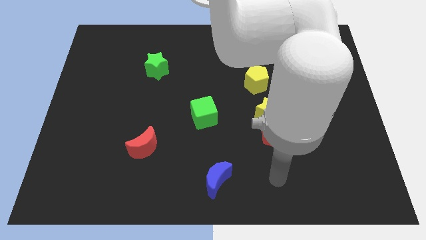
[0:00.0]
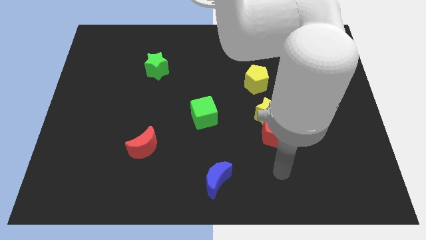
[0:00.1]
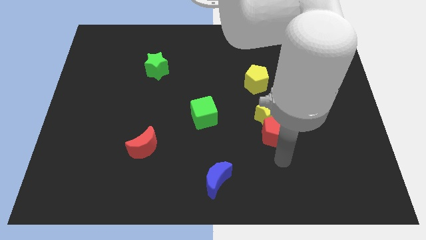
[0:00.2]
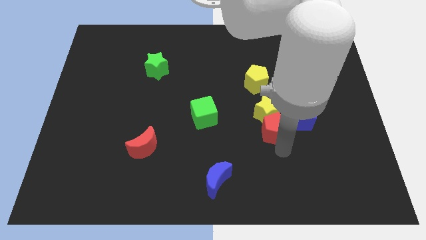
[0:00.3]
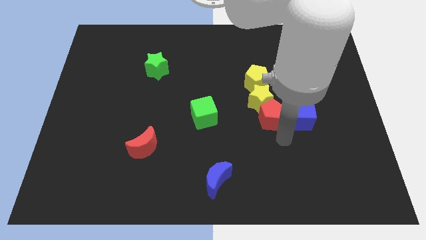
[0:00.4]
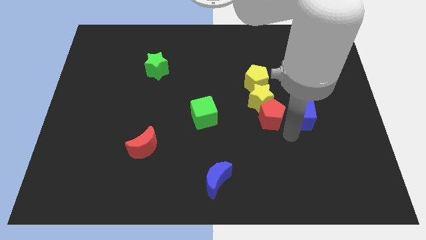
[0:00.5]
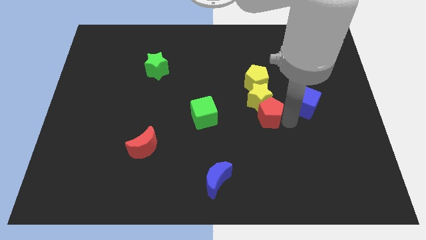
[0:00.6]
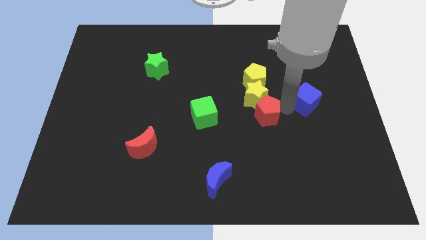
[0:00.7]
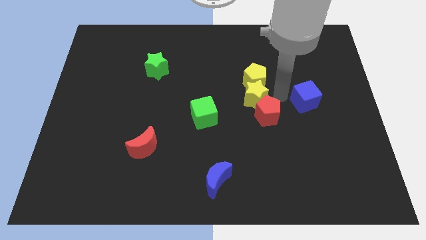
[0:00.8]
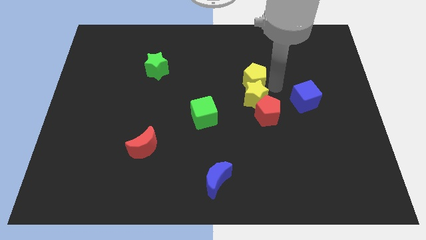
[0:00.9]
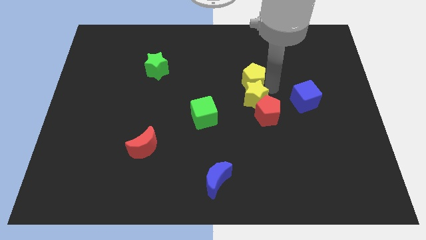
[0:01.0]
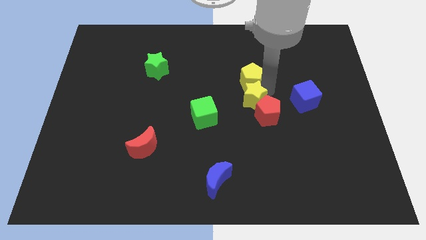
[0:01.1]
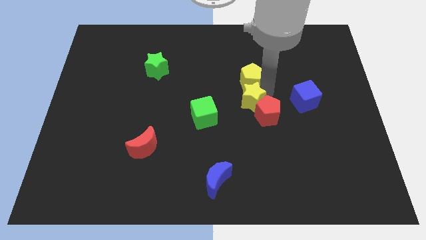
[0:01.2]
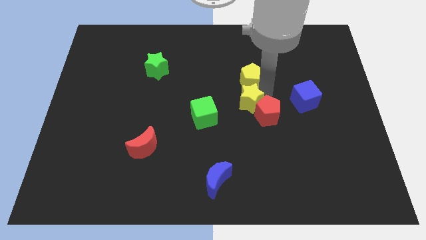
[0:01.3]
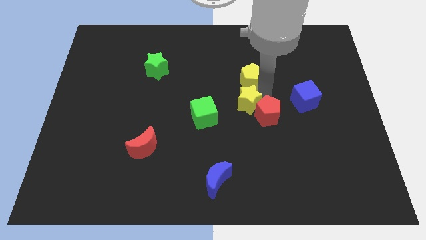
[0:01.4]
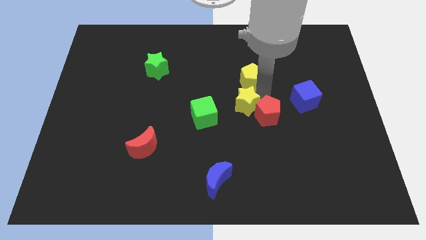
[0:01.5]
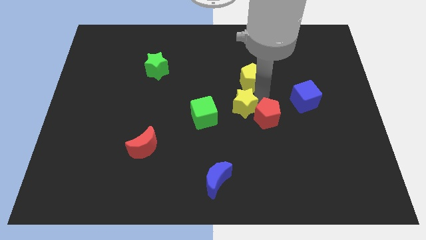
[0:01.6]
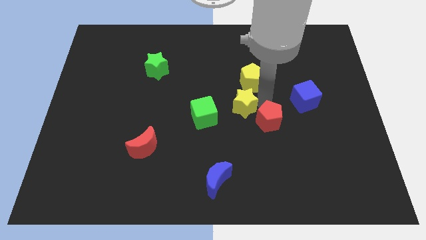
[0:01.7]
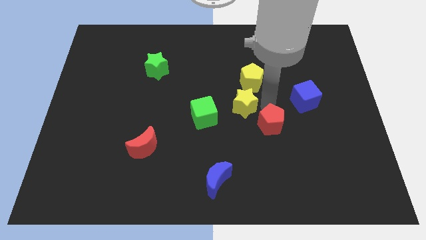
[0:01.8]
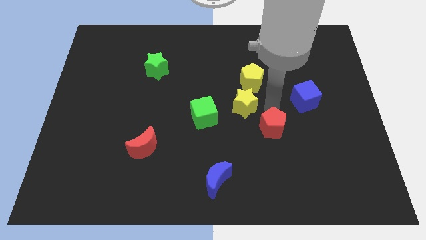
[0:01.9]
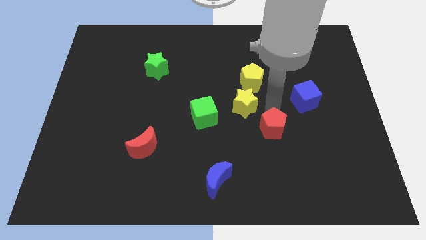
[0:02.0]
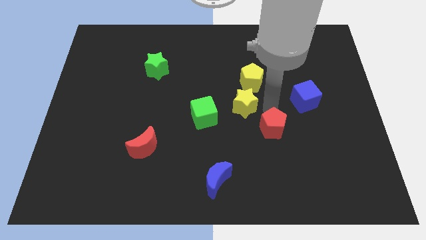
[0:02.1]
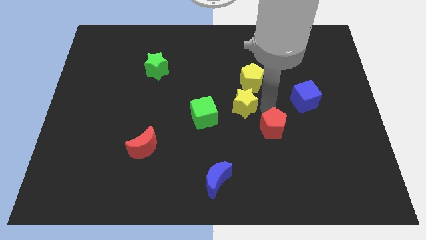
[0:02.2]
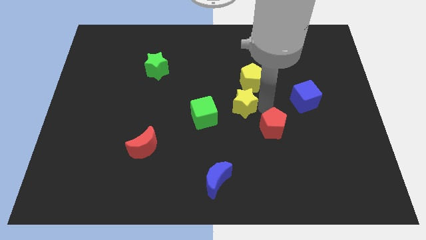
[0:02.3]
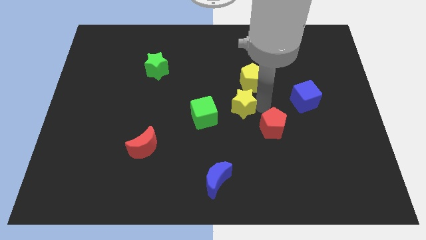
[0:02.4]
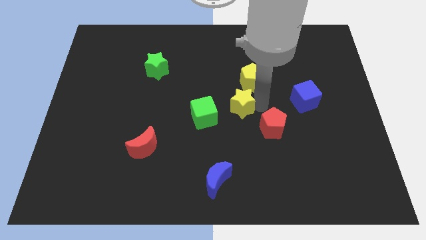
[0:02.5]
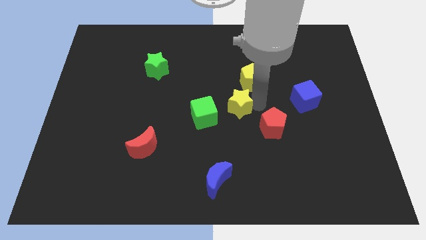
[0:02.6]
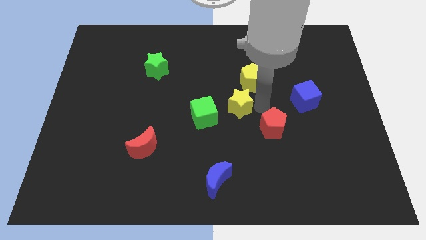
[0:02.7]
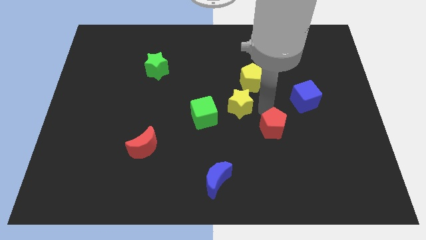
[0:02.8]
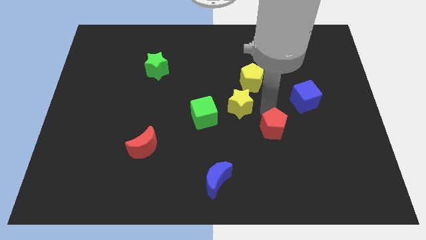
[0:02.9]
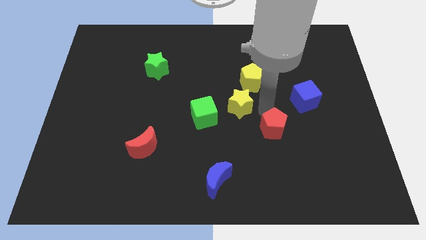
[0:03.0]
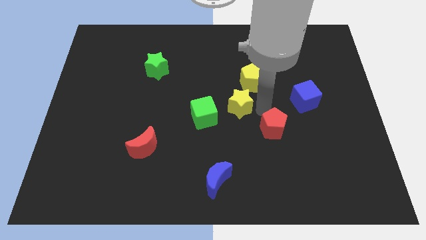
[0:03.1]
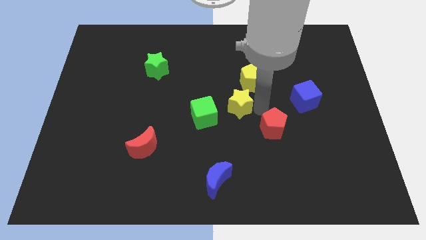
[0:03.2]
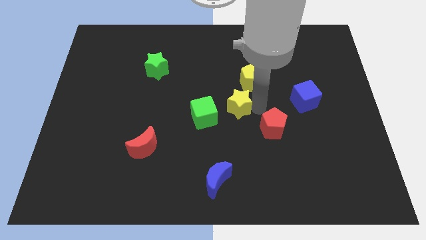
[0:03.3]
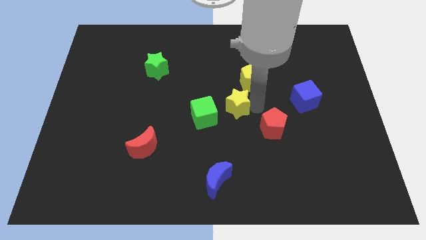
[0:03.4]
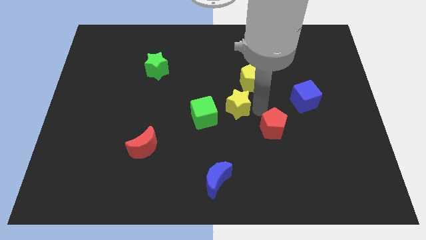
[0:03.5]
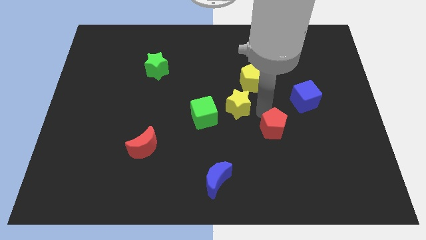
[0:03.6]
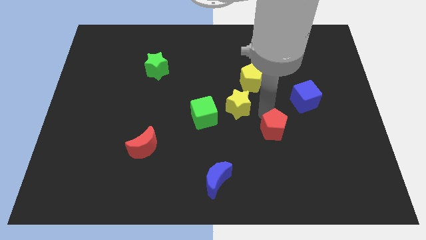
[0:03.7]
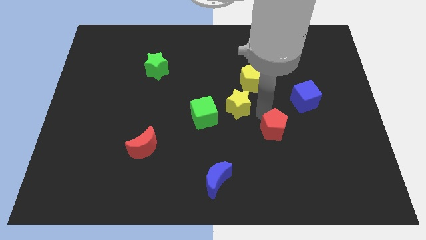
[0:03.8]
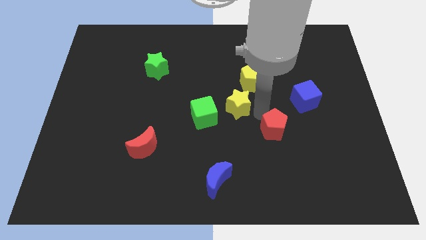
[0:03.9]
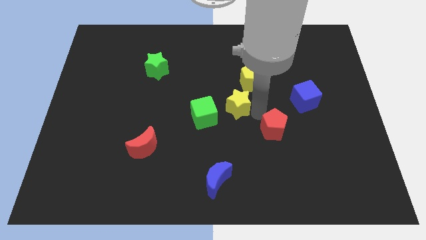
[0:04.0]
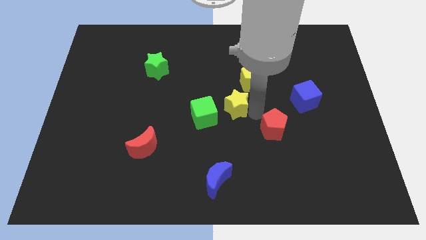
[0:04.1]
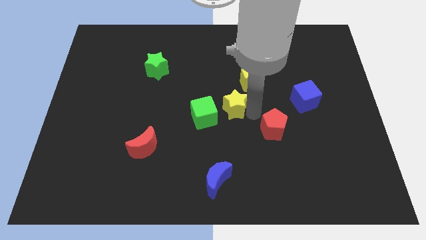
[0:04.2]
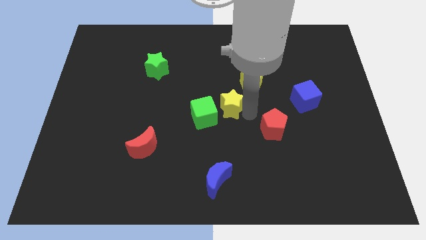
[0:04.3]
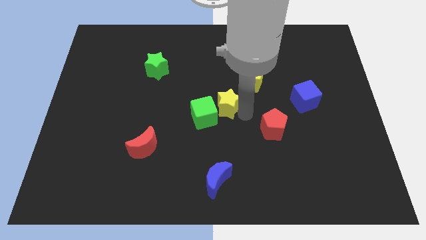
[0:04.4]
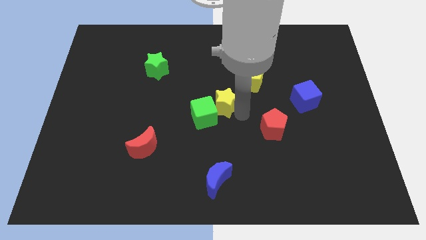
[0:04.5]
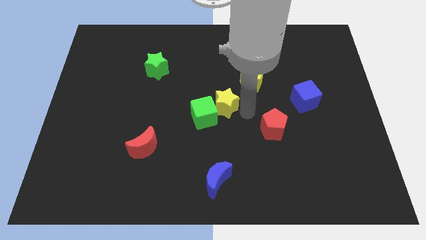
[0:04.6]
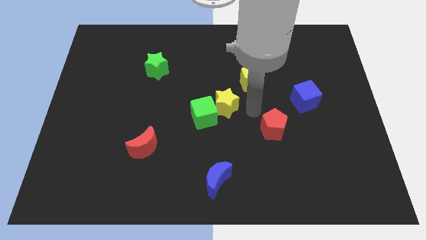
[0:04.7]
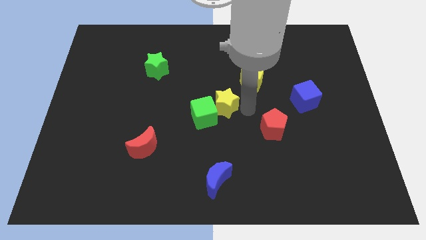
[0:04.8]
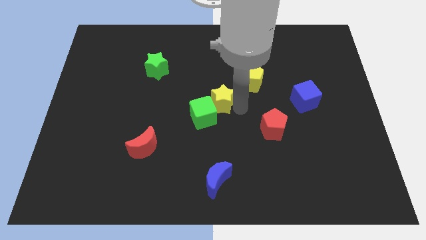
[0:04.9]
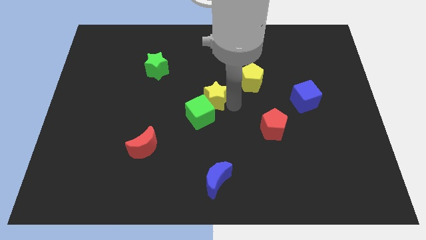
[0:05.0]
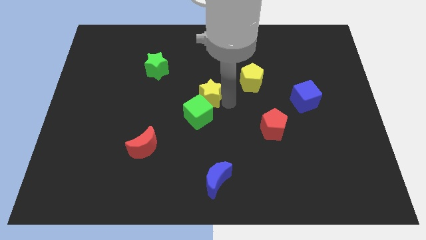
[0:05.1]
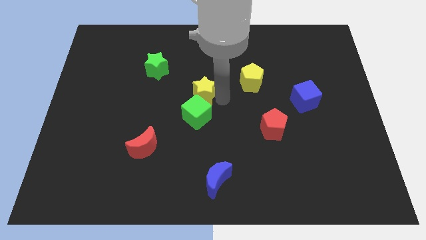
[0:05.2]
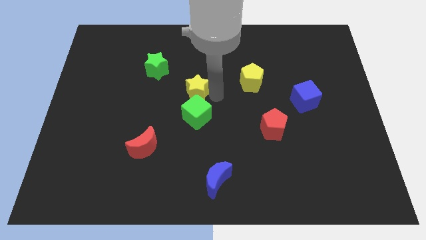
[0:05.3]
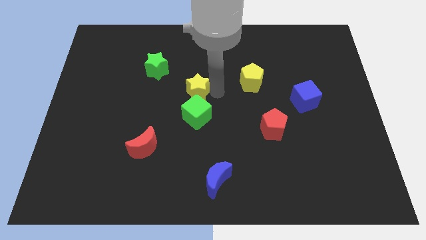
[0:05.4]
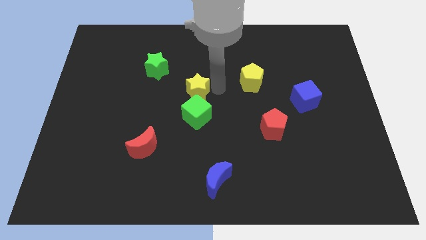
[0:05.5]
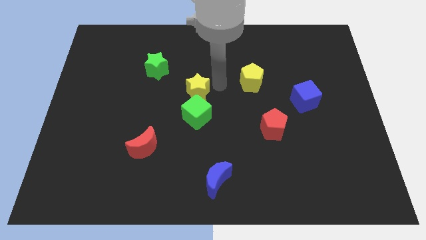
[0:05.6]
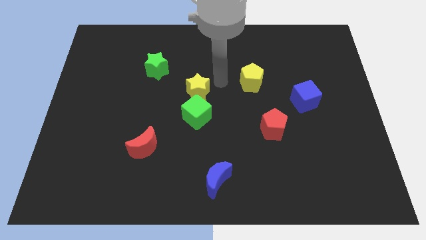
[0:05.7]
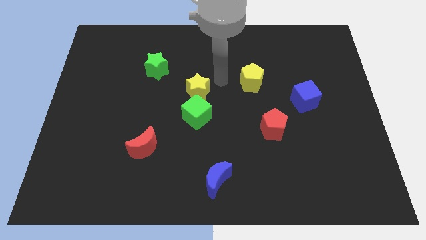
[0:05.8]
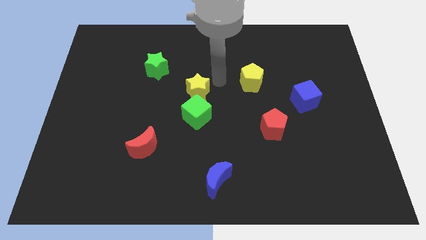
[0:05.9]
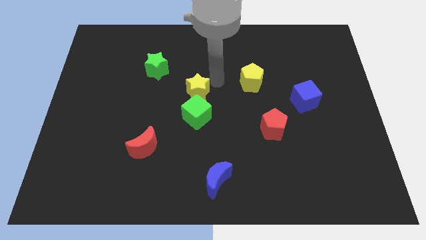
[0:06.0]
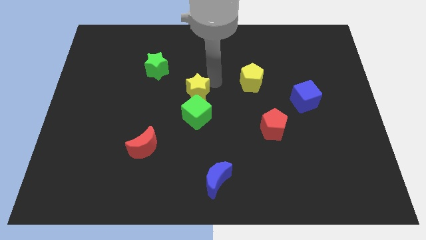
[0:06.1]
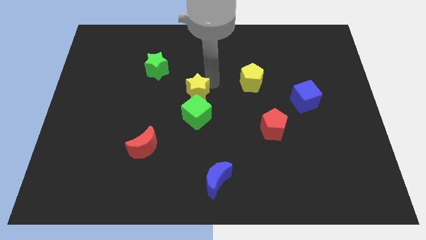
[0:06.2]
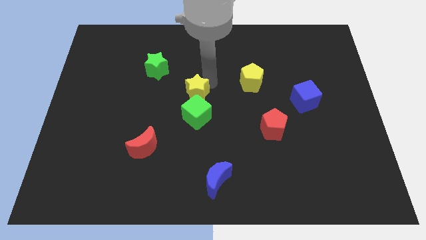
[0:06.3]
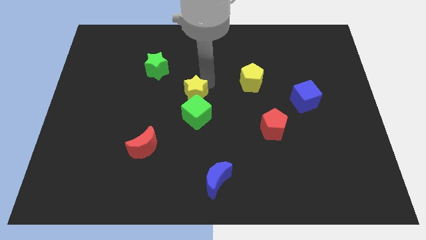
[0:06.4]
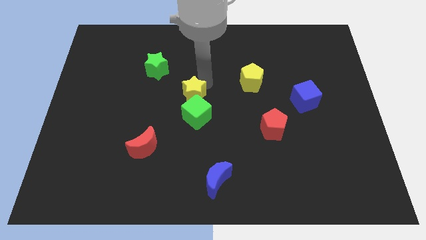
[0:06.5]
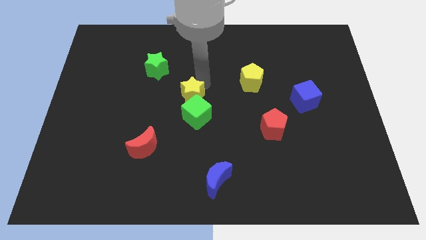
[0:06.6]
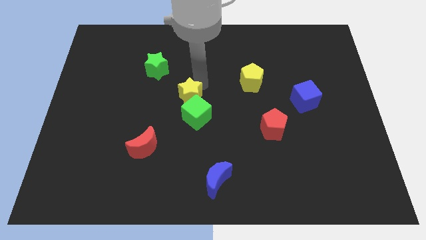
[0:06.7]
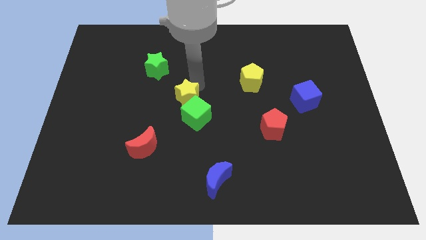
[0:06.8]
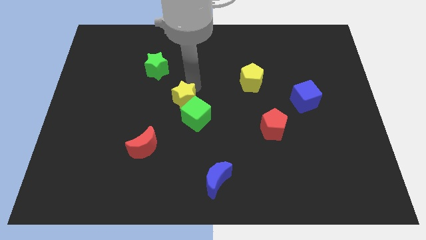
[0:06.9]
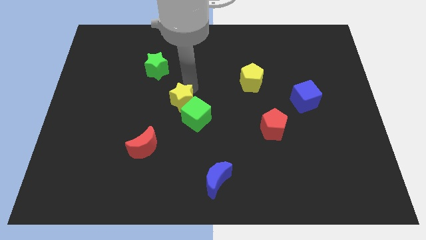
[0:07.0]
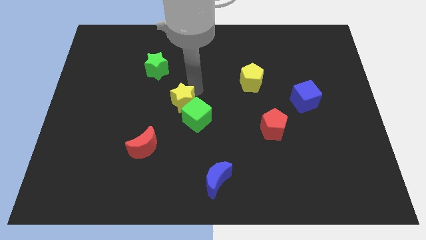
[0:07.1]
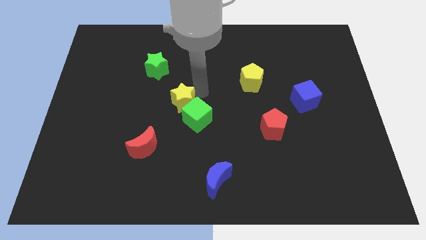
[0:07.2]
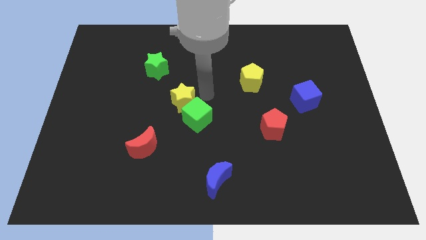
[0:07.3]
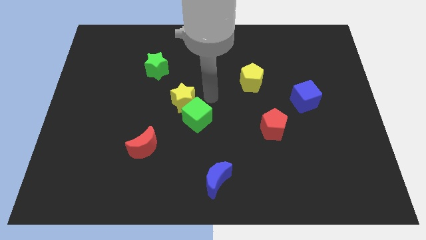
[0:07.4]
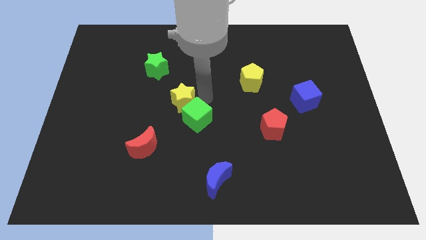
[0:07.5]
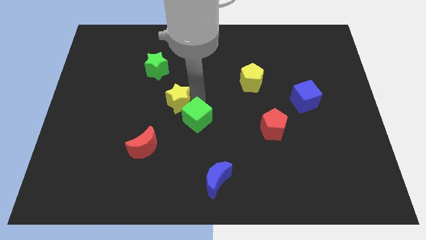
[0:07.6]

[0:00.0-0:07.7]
move the yellow star left
